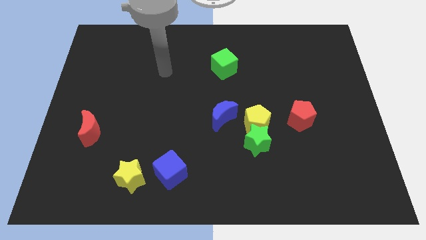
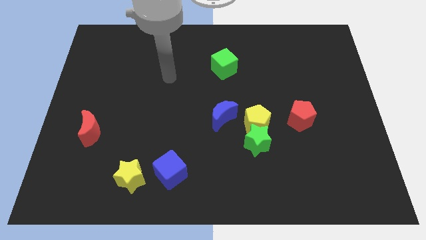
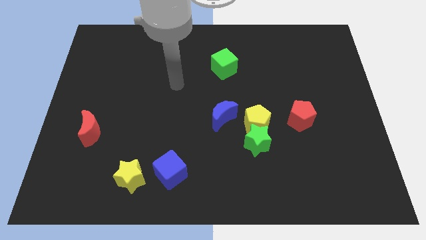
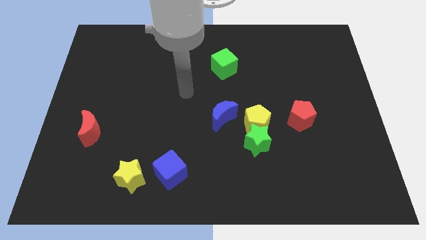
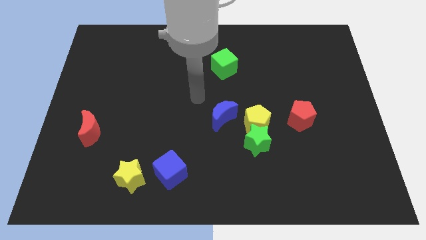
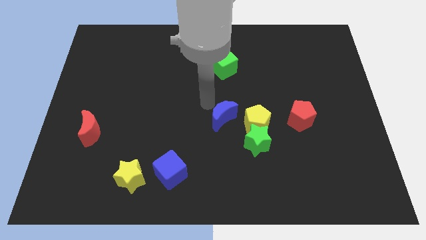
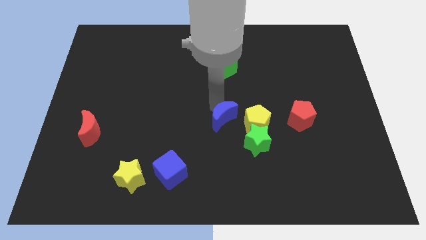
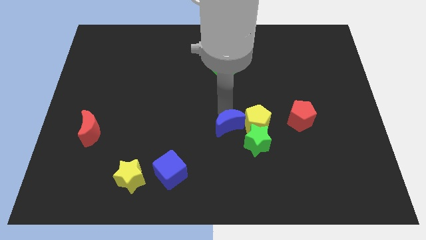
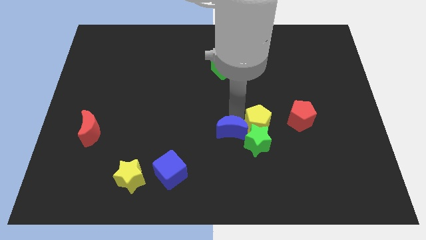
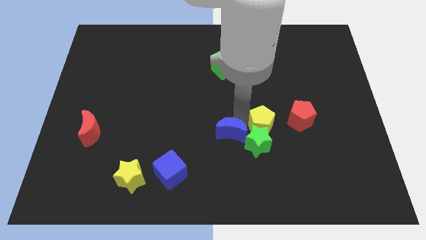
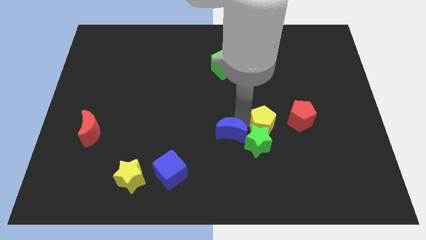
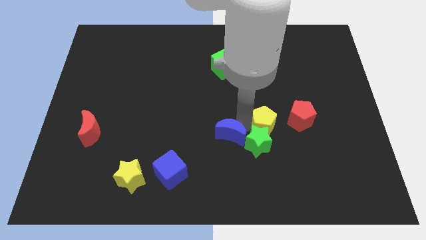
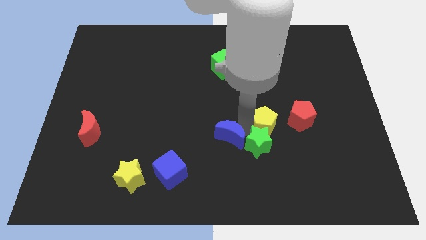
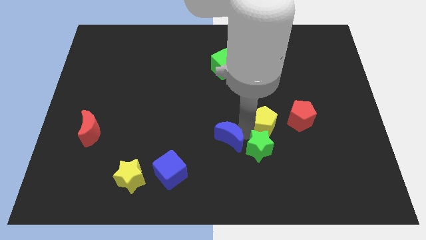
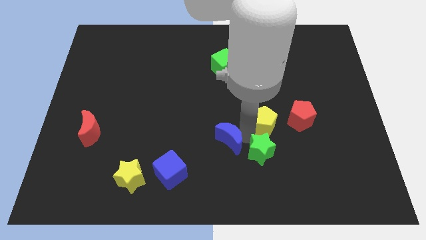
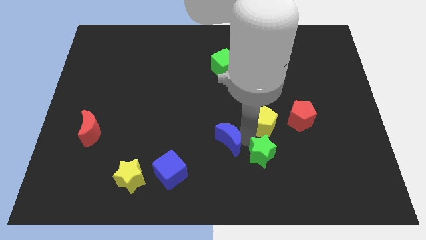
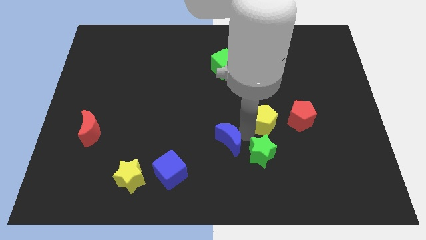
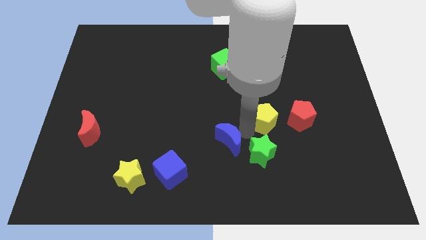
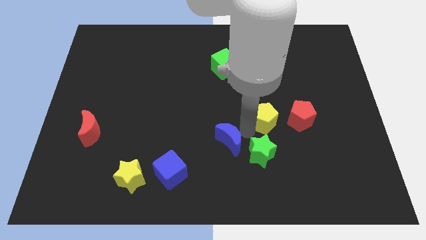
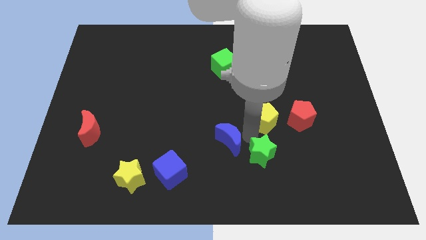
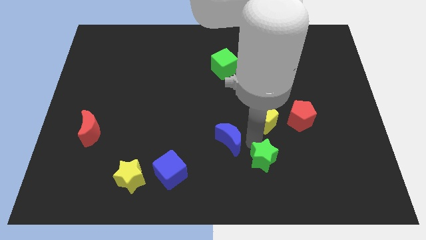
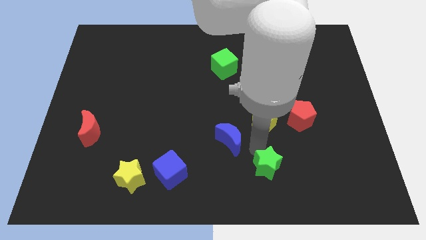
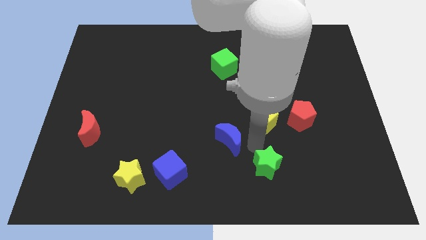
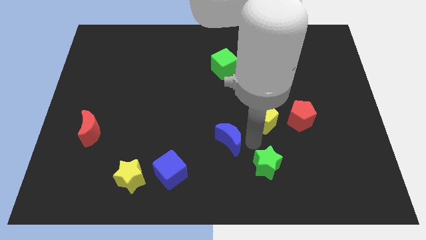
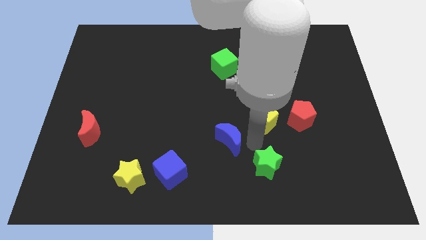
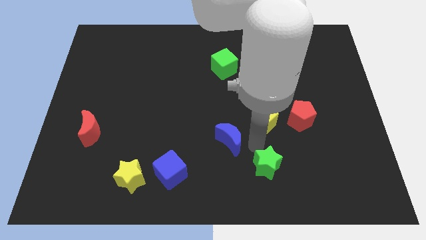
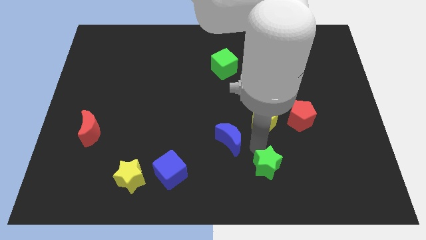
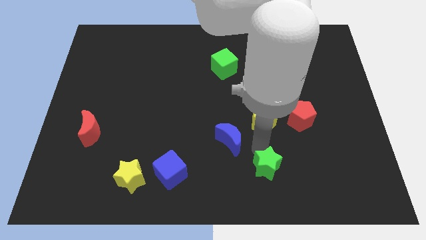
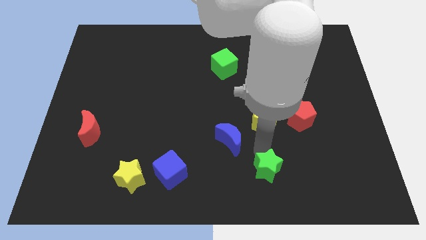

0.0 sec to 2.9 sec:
move the green star away from the yellow pentagon and blue moon

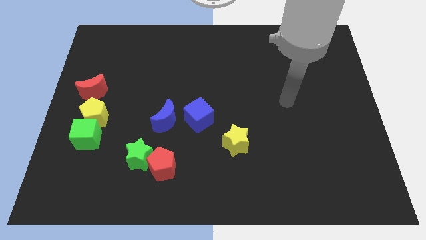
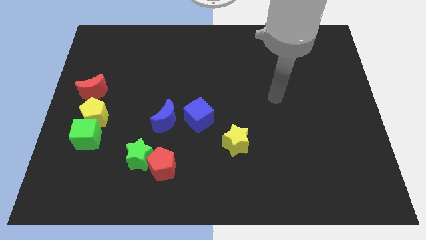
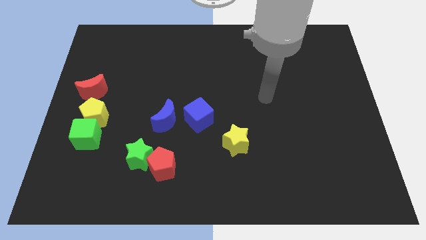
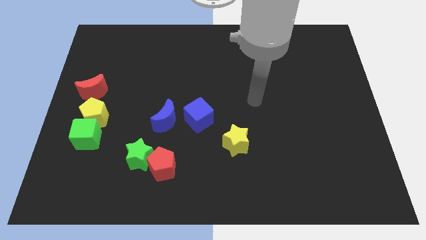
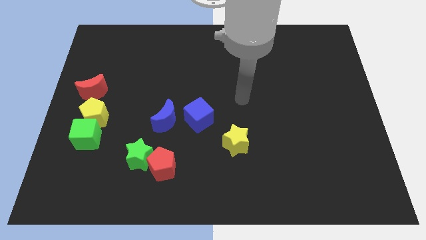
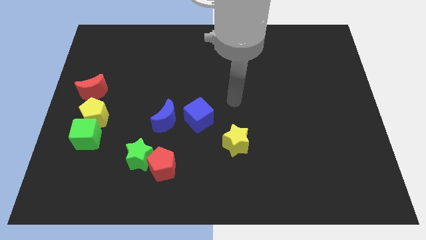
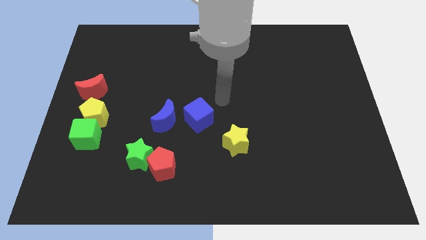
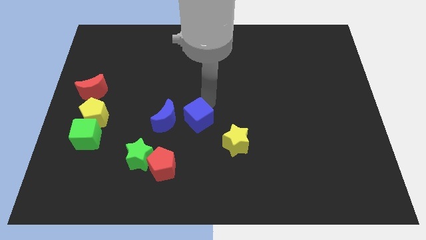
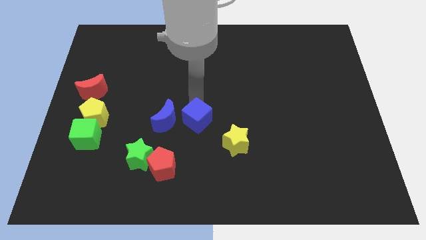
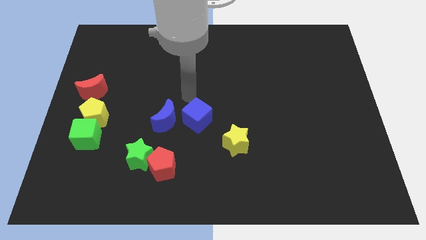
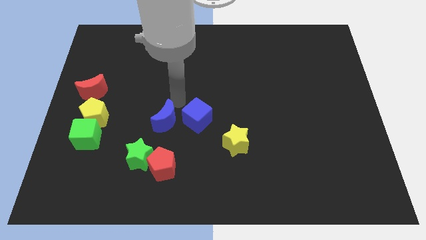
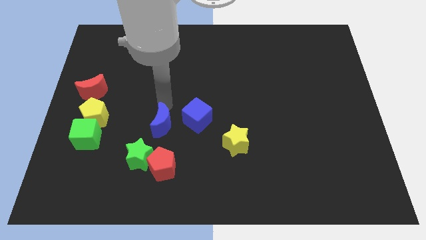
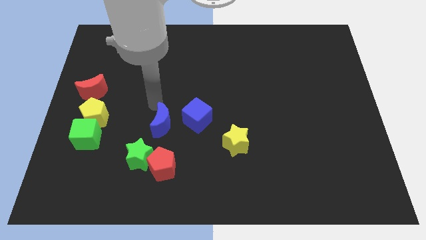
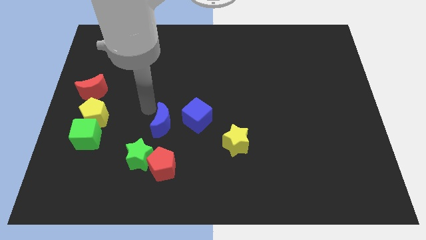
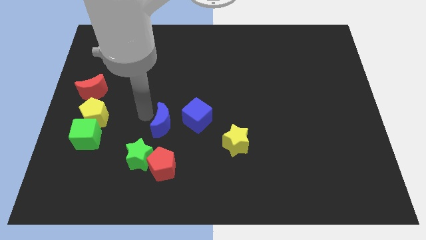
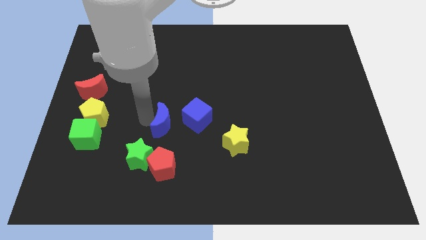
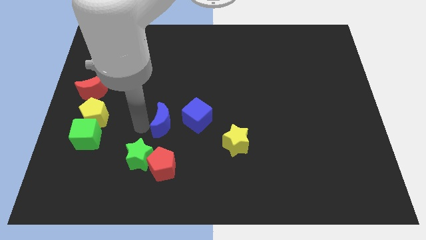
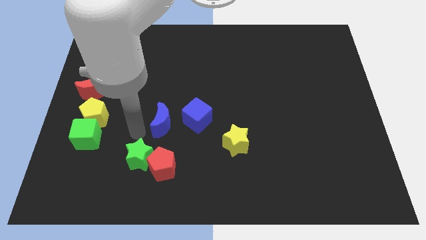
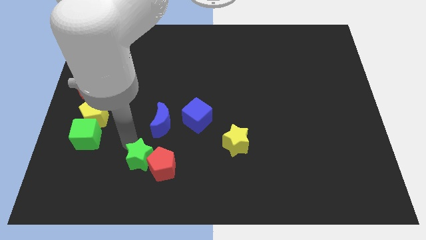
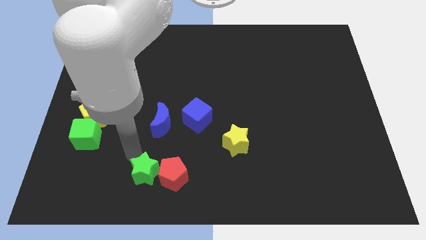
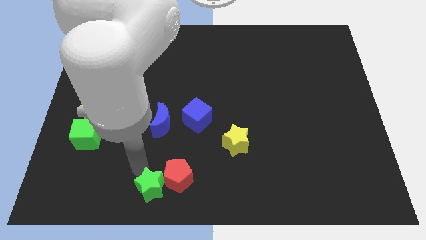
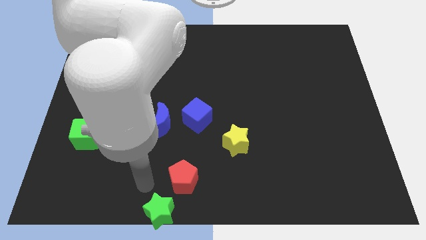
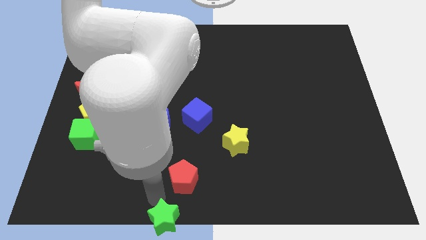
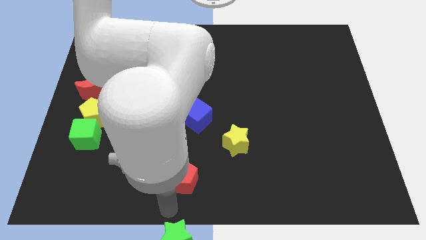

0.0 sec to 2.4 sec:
move the red pentagon away from the green star

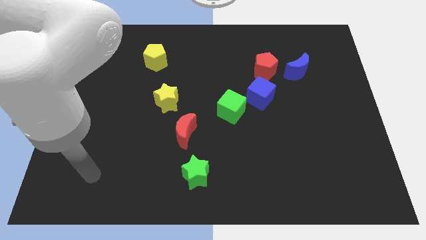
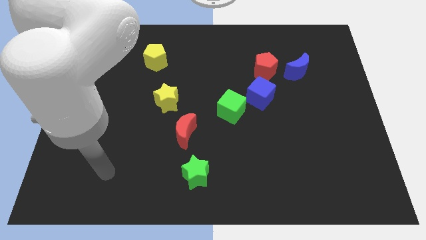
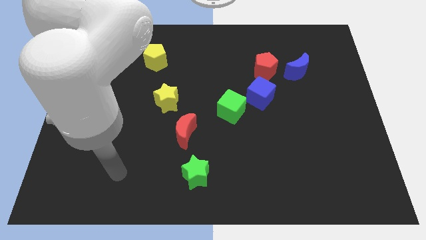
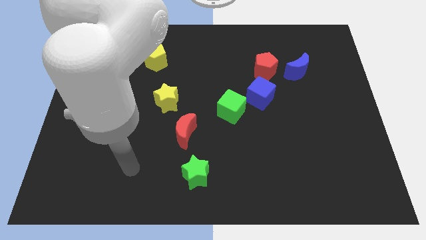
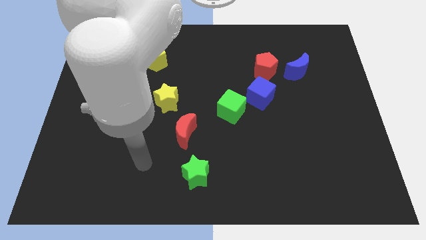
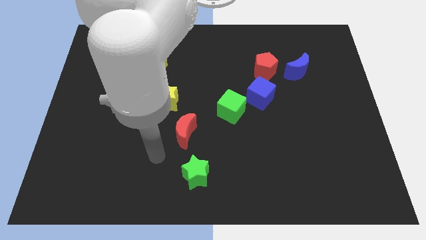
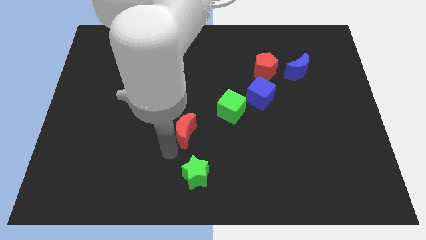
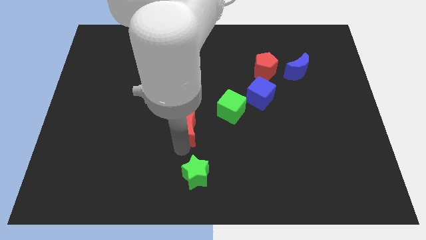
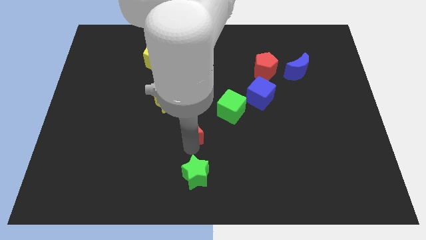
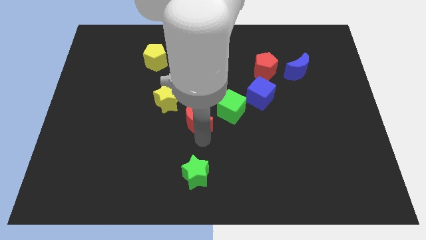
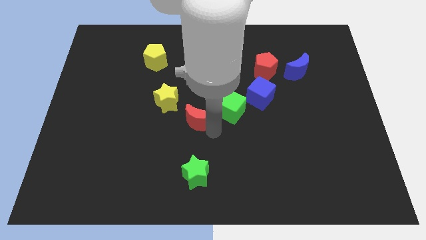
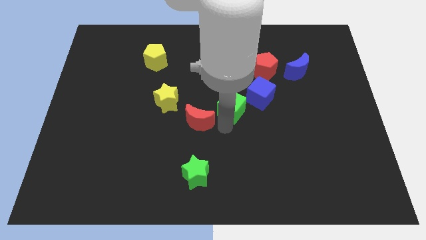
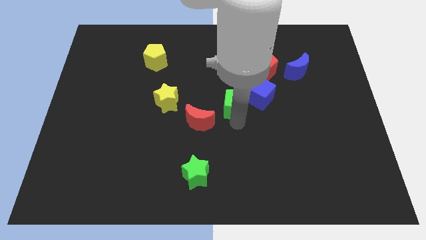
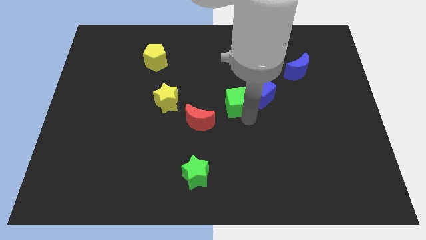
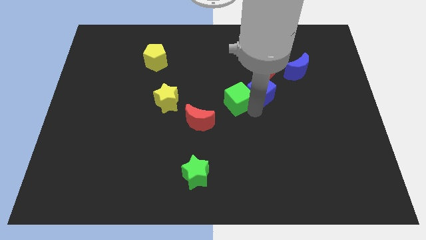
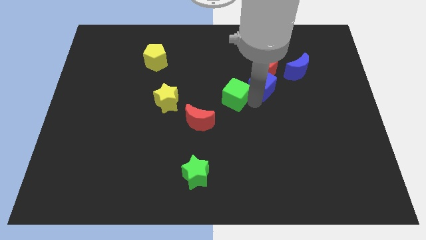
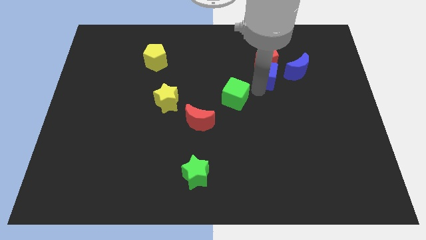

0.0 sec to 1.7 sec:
separate the green cube from the blue cube

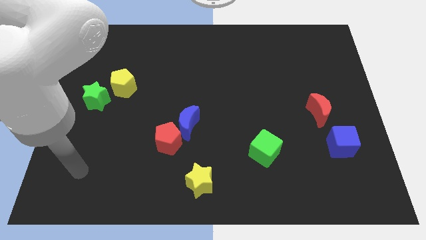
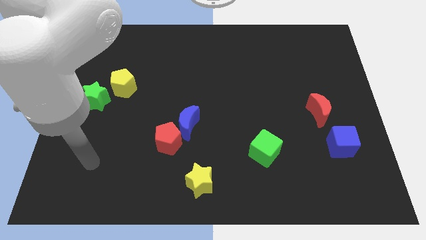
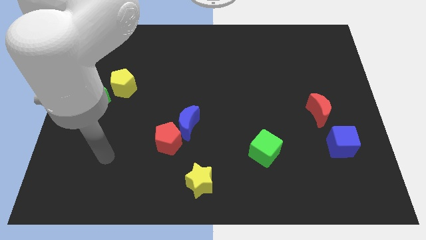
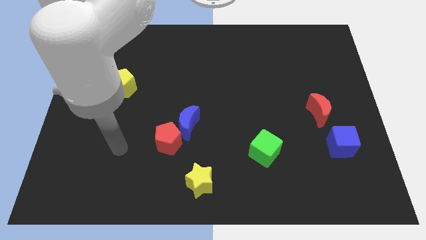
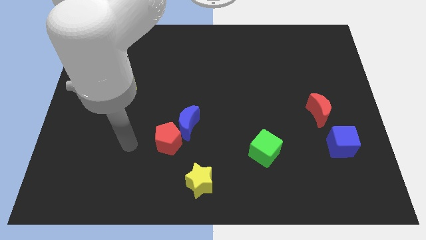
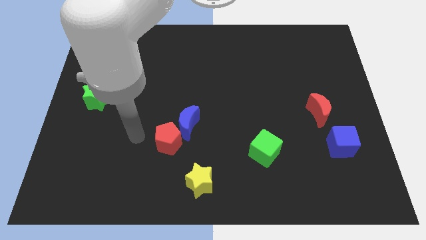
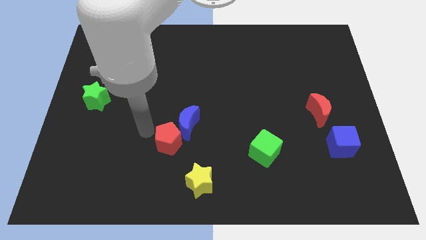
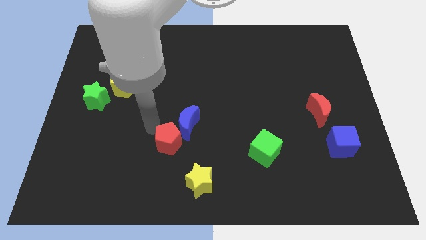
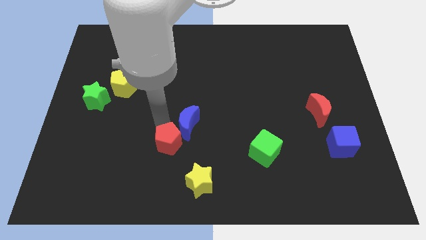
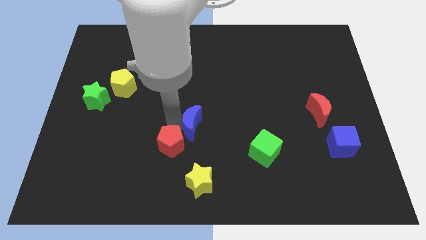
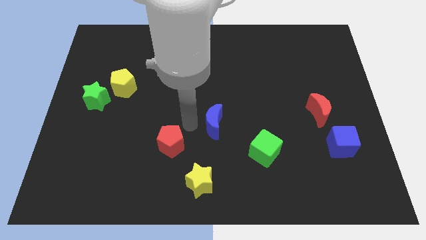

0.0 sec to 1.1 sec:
move the red pentagon away from the blue moon

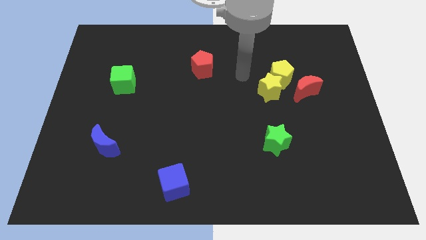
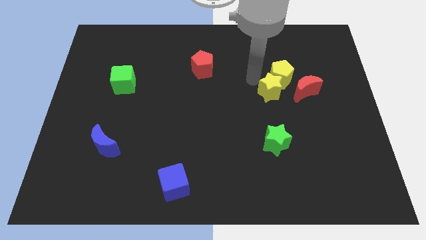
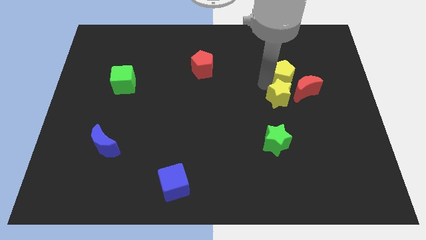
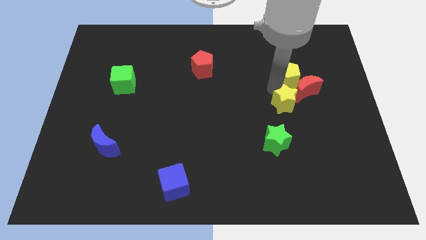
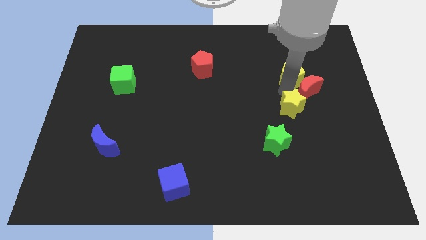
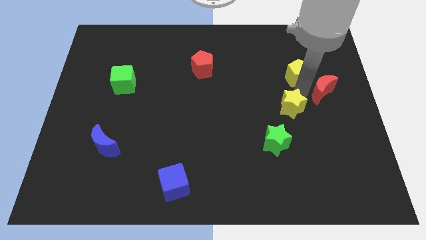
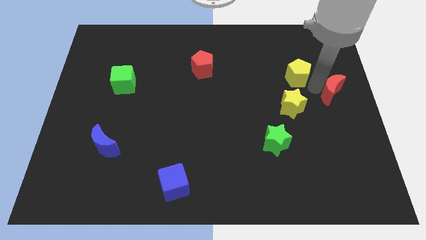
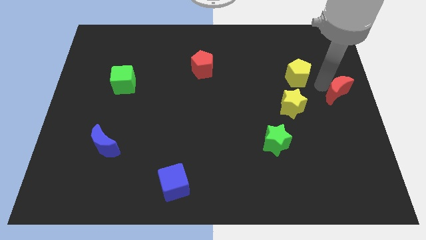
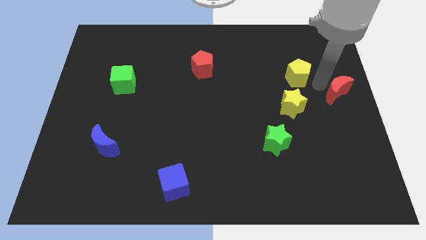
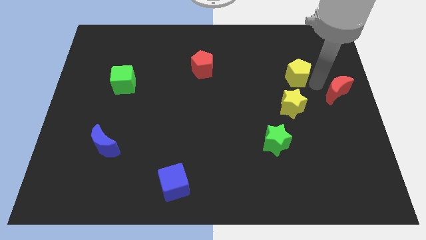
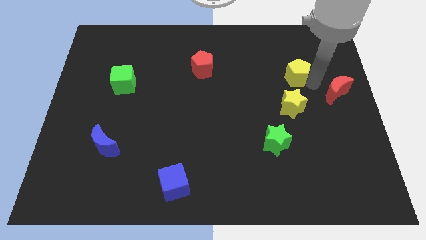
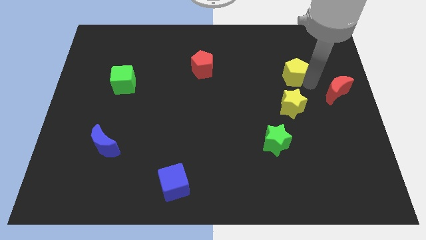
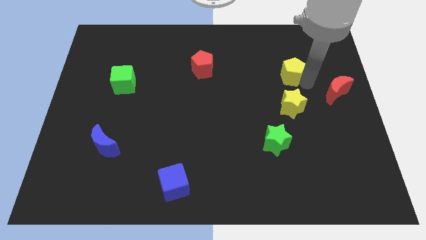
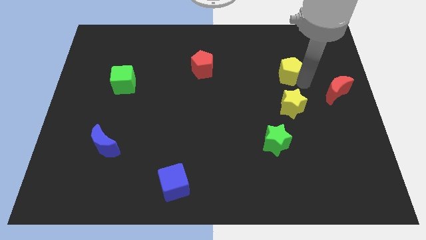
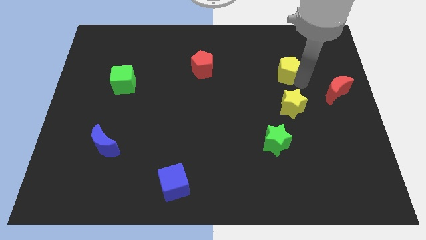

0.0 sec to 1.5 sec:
separate the yellow pentagon from the yellow star and red moon
